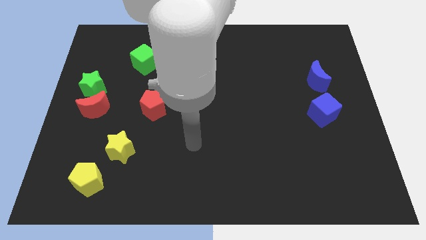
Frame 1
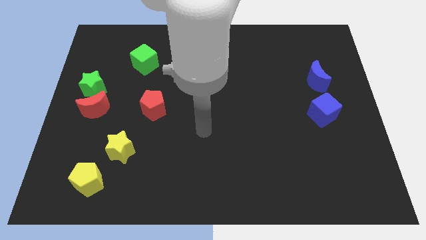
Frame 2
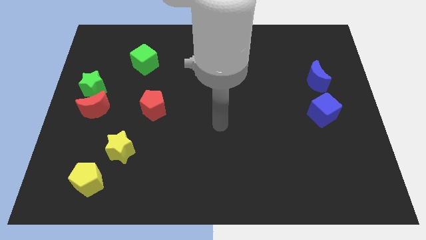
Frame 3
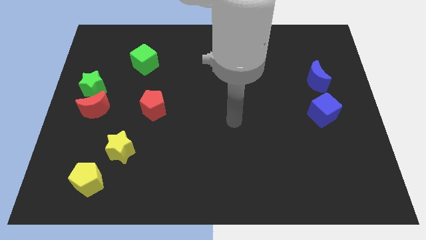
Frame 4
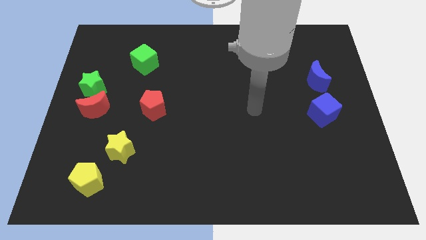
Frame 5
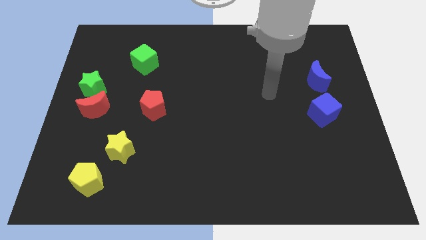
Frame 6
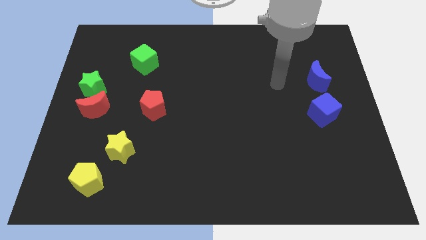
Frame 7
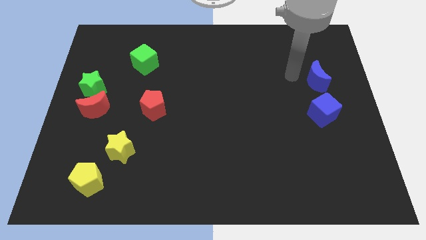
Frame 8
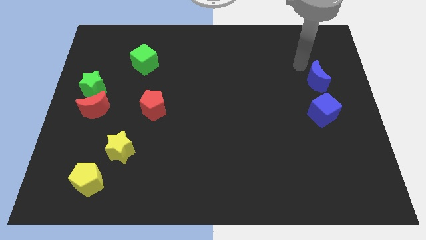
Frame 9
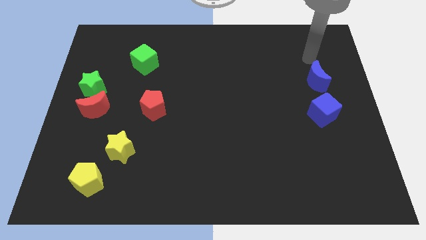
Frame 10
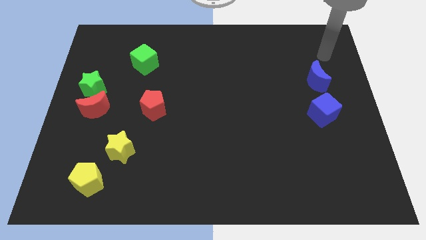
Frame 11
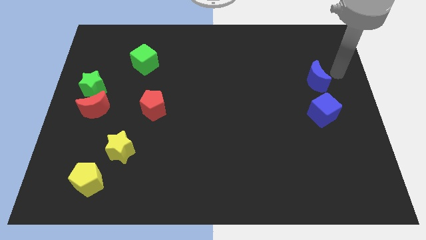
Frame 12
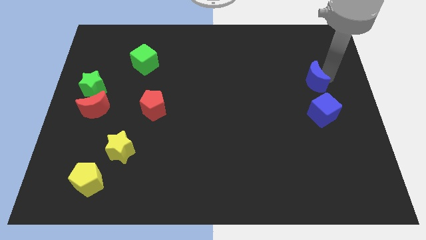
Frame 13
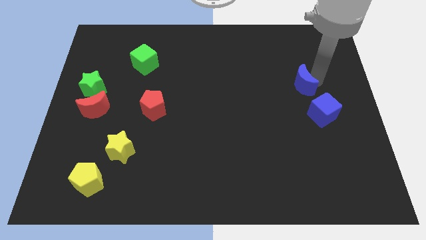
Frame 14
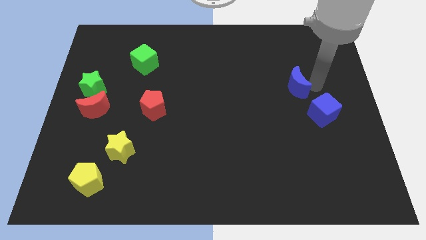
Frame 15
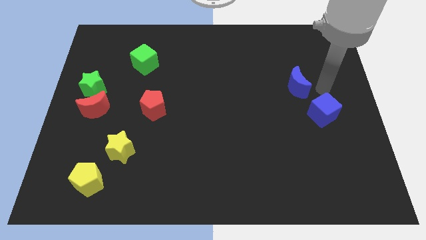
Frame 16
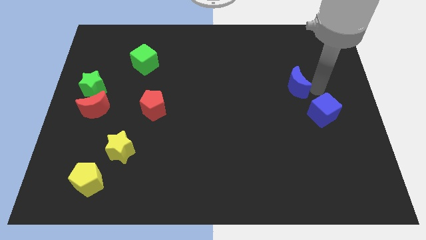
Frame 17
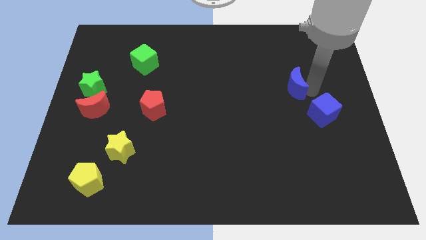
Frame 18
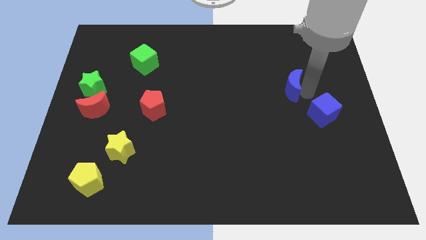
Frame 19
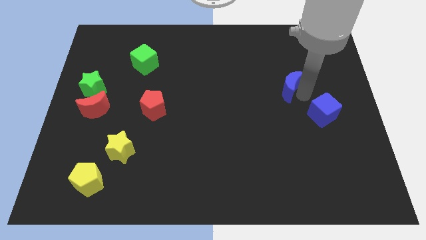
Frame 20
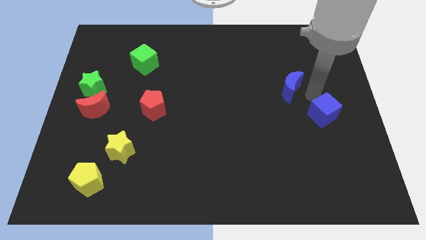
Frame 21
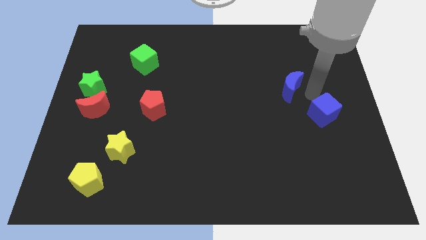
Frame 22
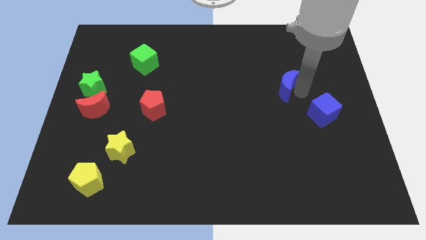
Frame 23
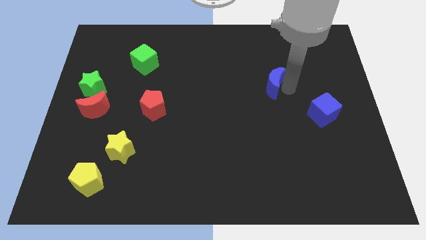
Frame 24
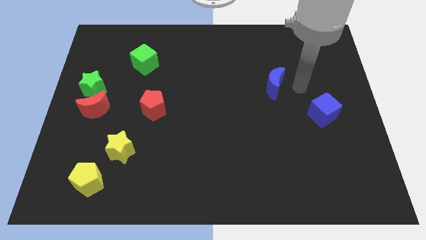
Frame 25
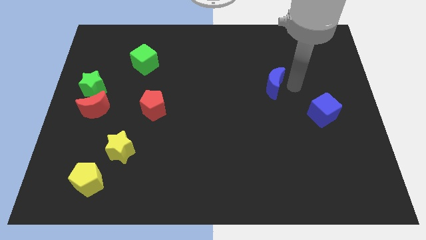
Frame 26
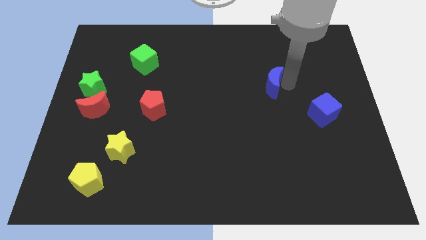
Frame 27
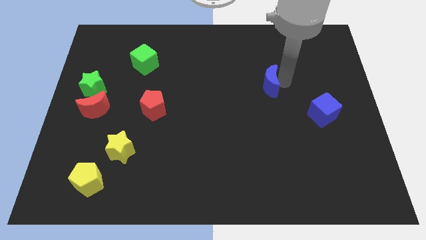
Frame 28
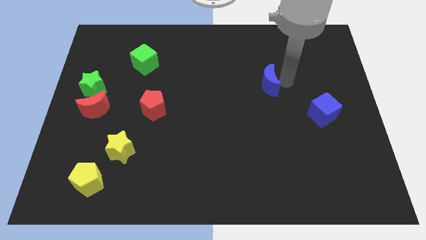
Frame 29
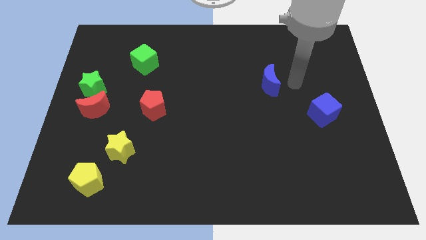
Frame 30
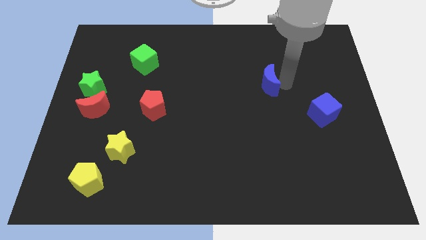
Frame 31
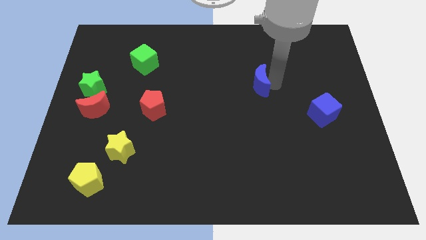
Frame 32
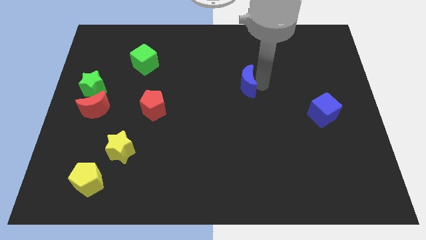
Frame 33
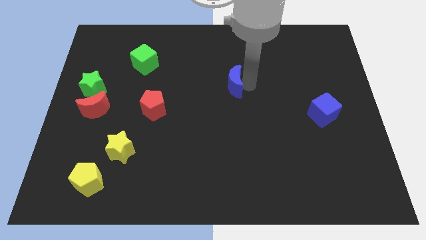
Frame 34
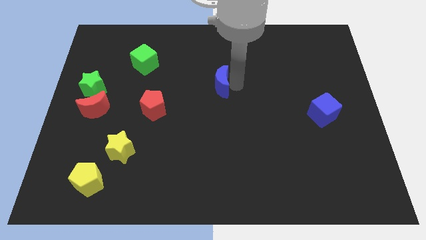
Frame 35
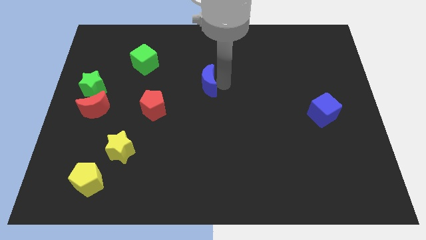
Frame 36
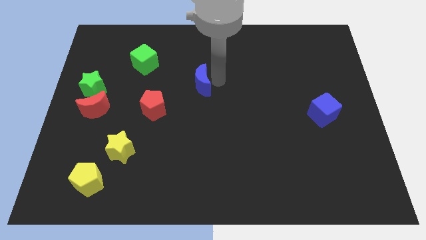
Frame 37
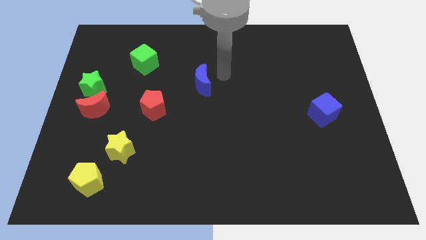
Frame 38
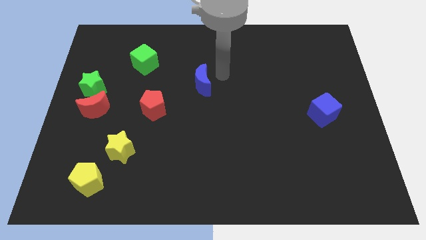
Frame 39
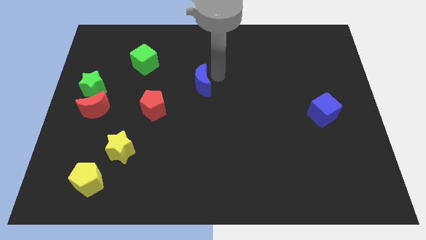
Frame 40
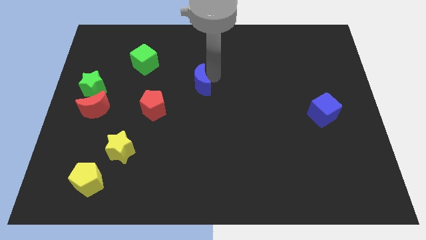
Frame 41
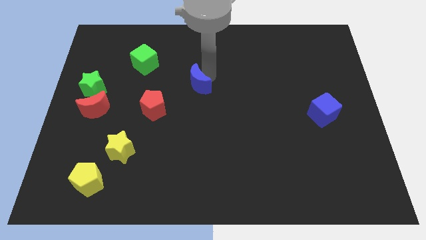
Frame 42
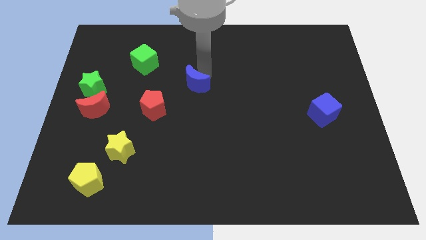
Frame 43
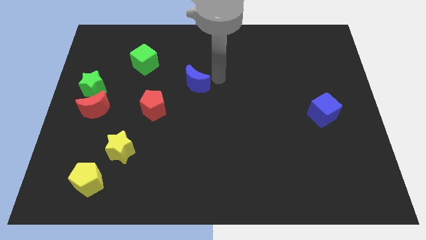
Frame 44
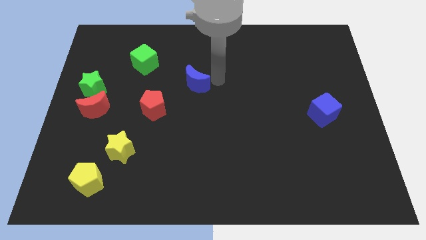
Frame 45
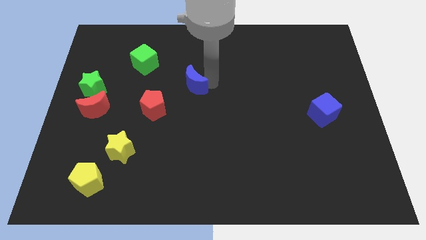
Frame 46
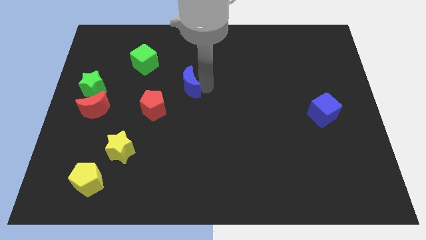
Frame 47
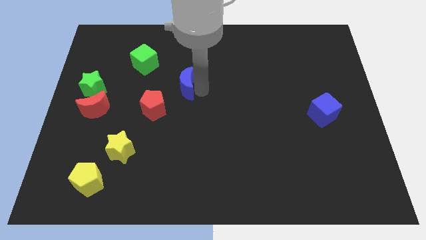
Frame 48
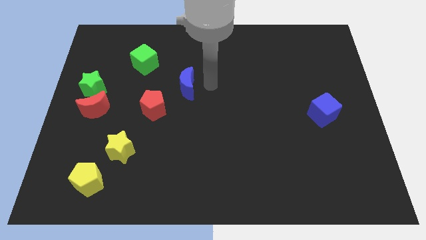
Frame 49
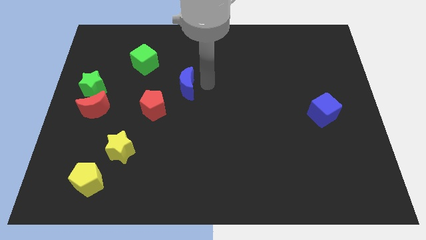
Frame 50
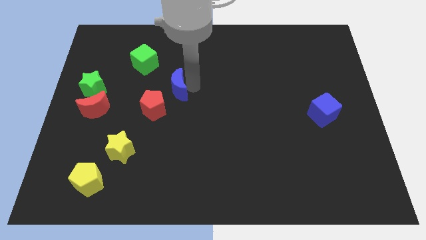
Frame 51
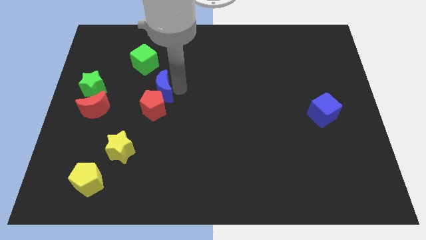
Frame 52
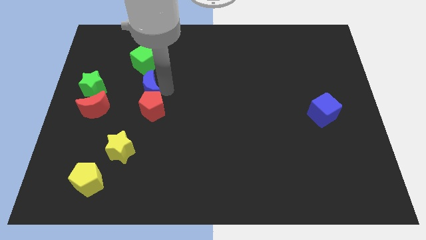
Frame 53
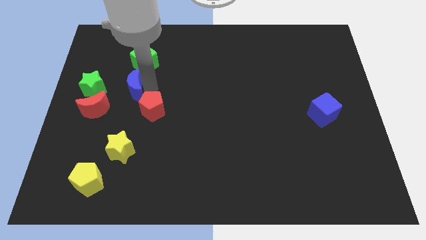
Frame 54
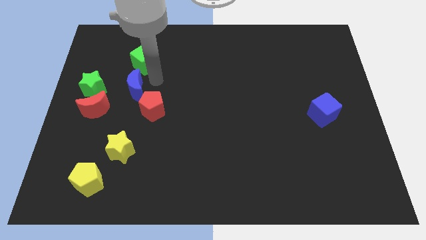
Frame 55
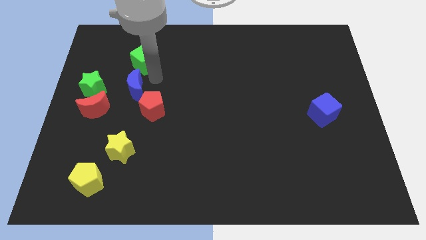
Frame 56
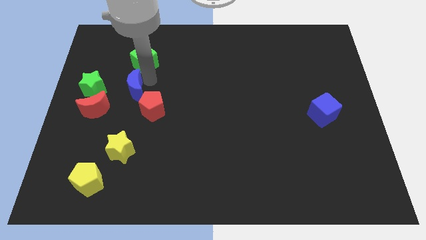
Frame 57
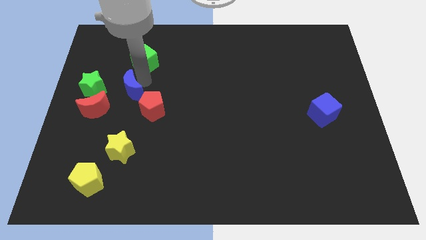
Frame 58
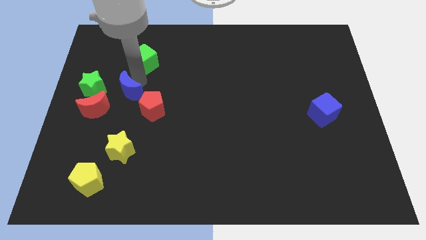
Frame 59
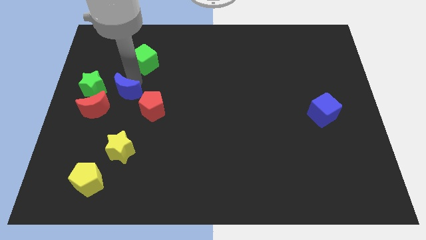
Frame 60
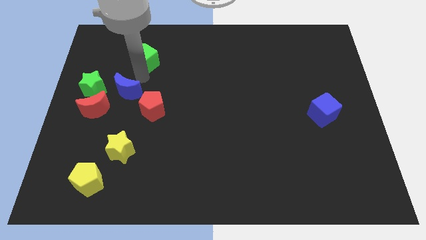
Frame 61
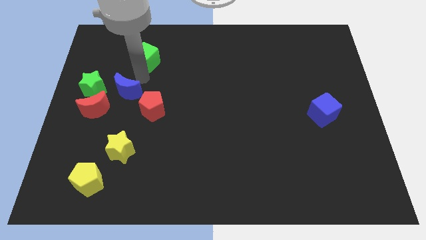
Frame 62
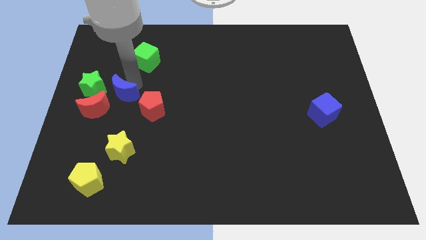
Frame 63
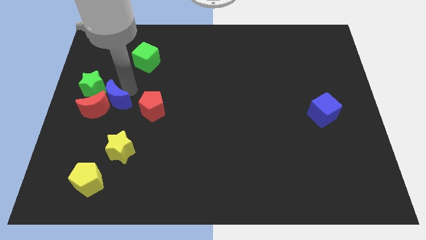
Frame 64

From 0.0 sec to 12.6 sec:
move the blue moon next to the red moon

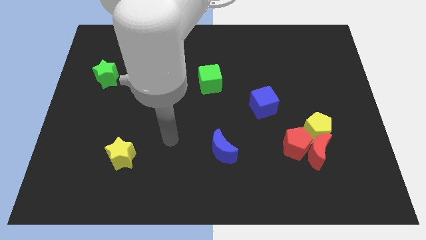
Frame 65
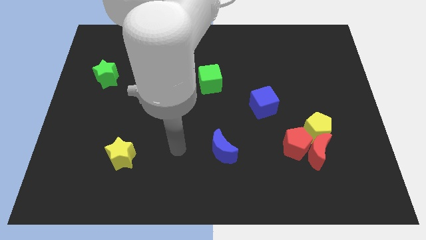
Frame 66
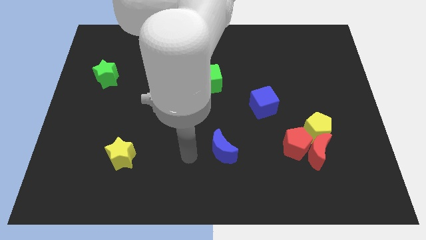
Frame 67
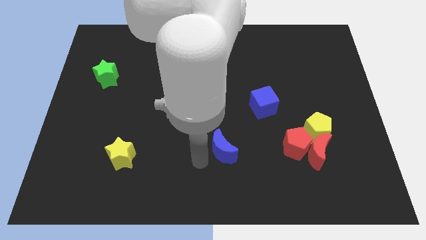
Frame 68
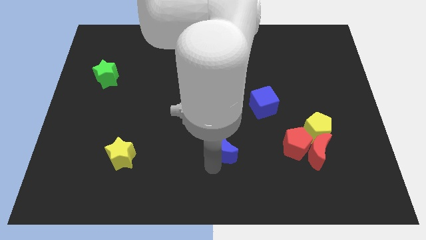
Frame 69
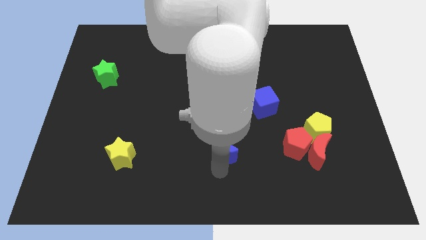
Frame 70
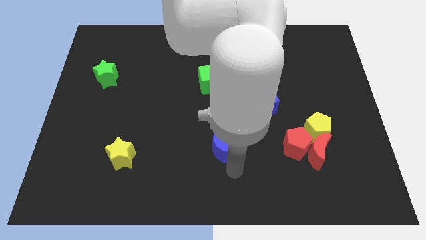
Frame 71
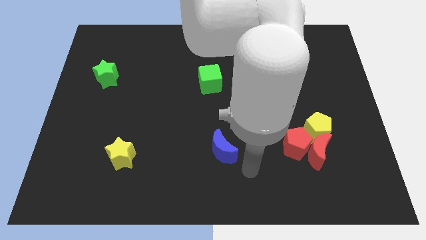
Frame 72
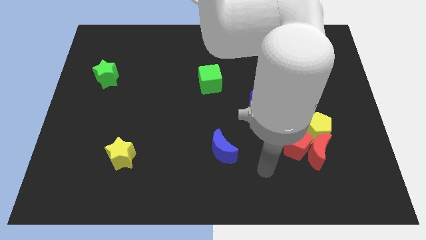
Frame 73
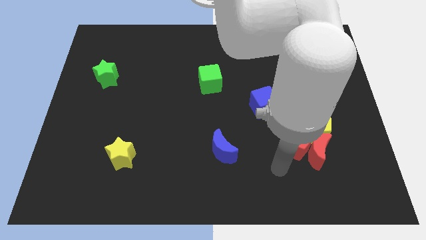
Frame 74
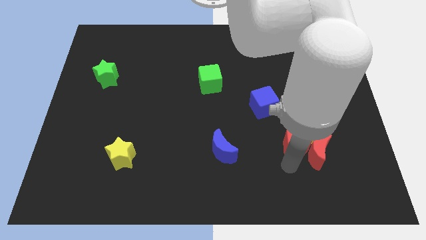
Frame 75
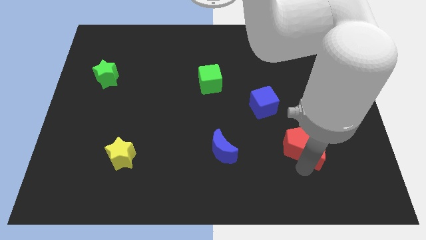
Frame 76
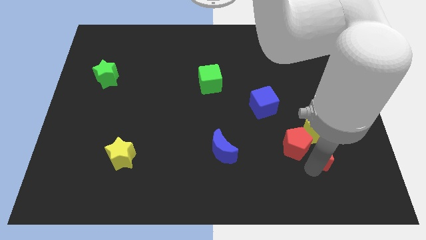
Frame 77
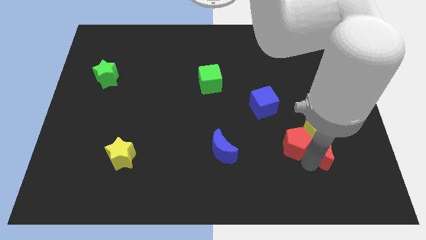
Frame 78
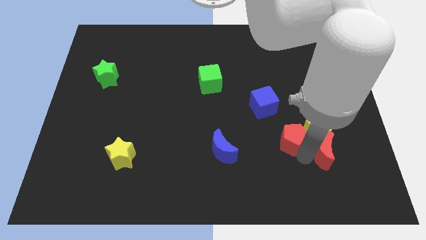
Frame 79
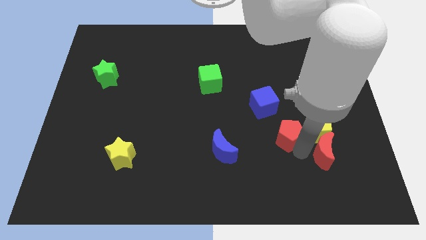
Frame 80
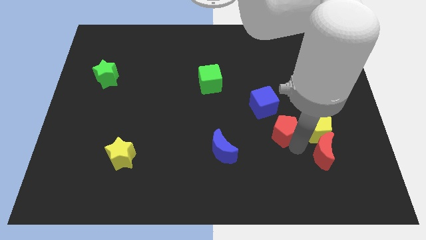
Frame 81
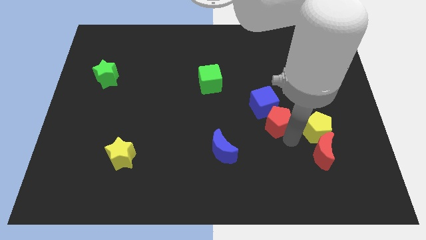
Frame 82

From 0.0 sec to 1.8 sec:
put the red pentagon towards the blue cube
